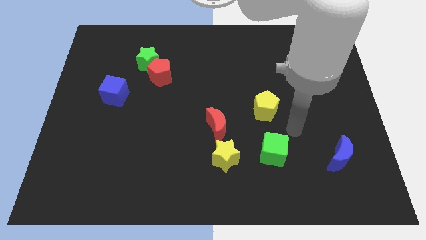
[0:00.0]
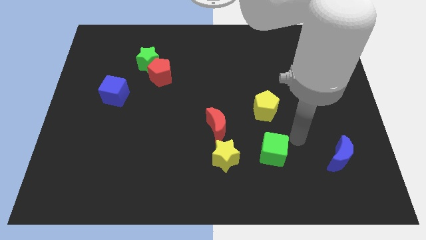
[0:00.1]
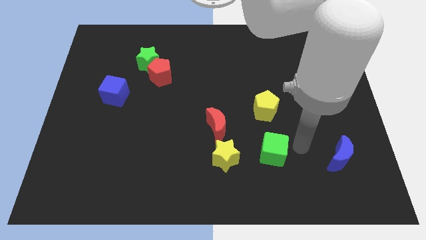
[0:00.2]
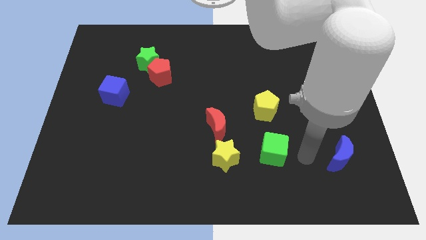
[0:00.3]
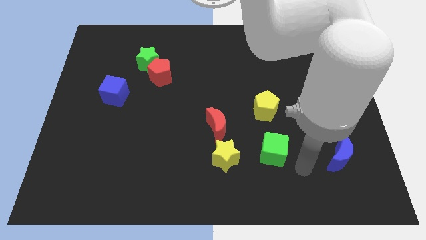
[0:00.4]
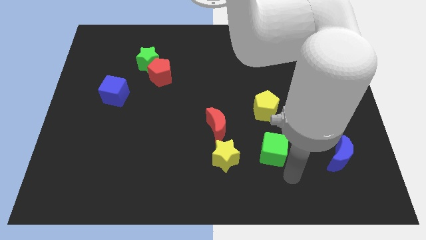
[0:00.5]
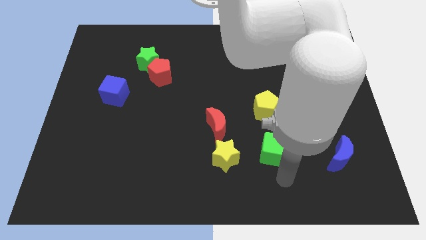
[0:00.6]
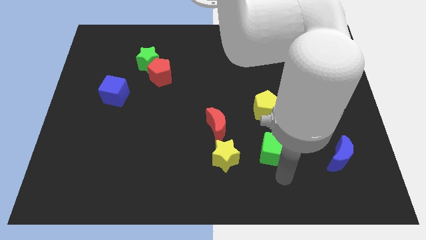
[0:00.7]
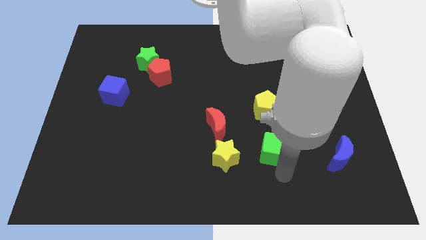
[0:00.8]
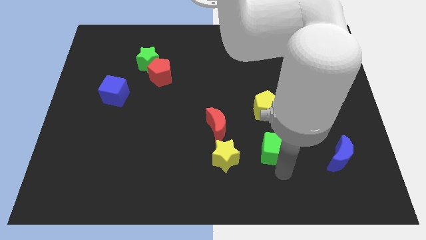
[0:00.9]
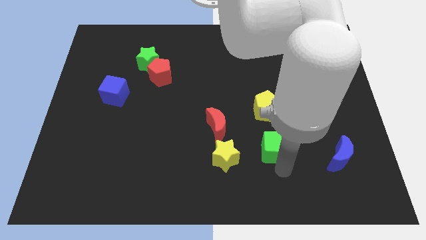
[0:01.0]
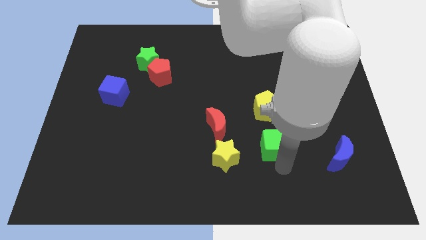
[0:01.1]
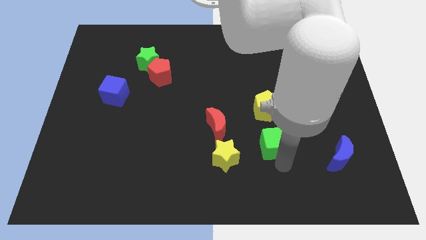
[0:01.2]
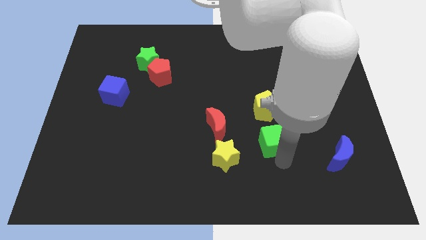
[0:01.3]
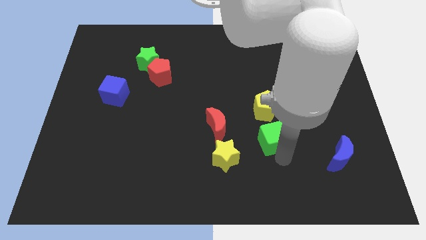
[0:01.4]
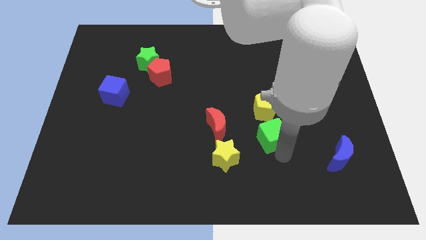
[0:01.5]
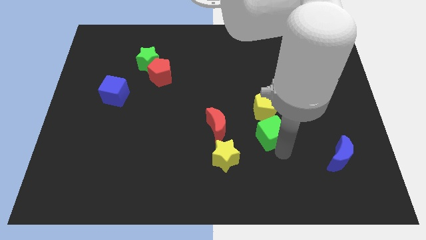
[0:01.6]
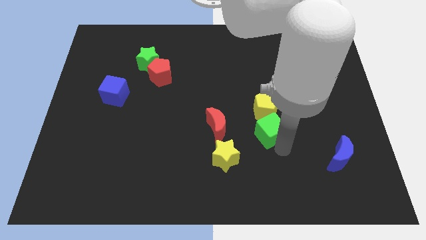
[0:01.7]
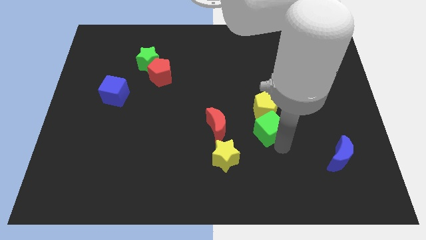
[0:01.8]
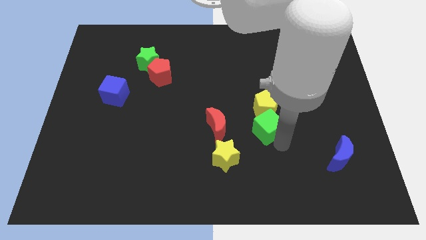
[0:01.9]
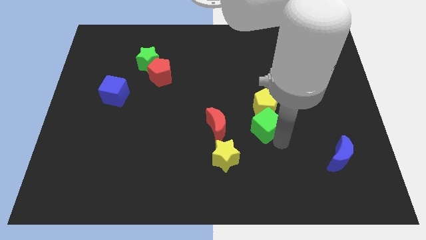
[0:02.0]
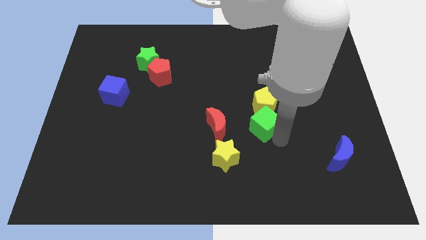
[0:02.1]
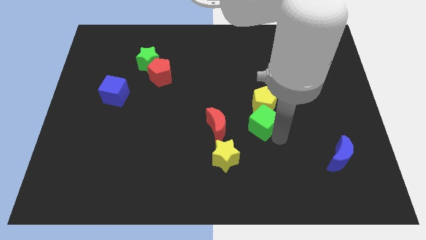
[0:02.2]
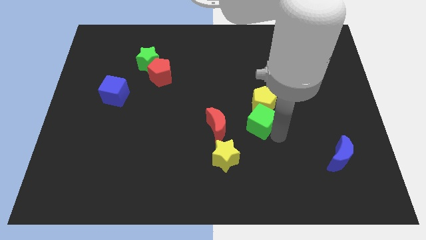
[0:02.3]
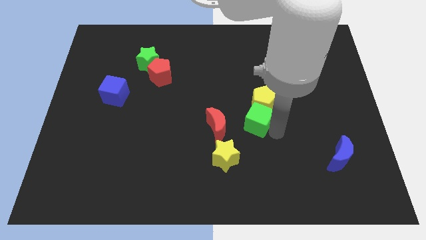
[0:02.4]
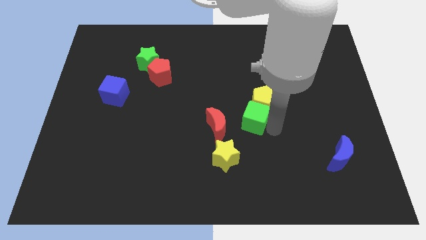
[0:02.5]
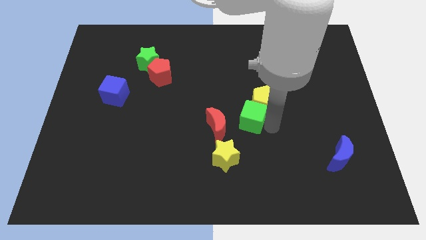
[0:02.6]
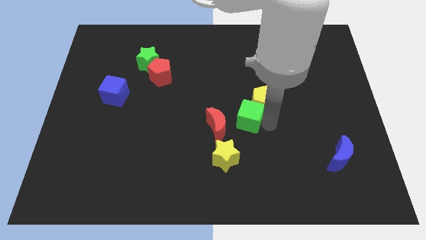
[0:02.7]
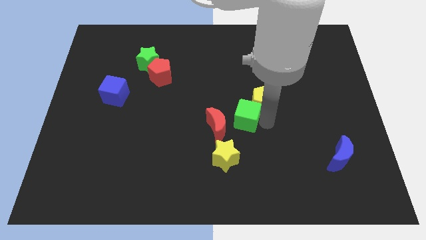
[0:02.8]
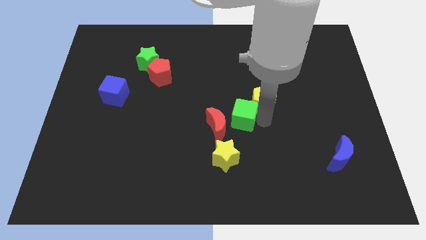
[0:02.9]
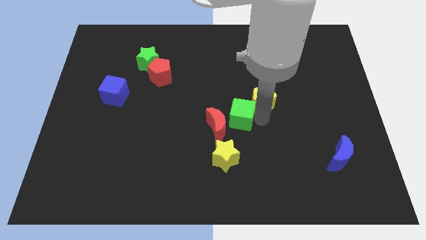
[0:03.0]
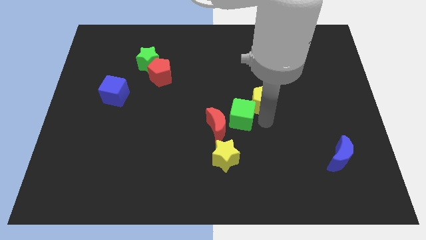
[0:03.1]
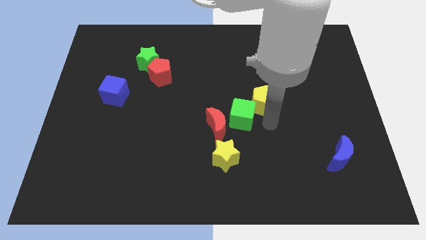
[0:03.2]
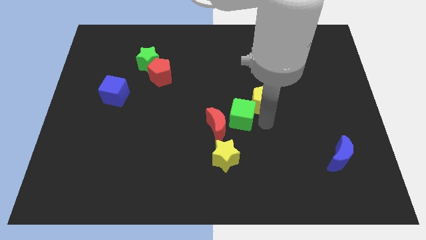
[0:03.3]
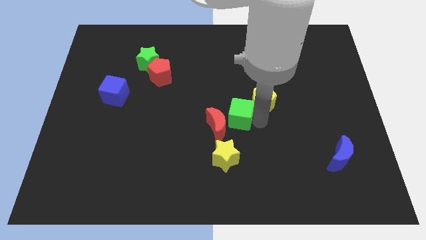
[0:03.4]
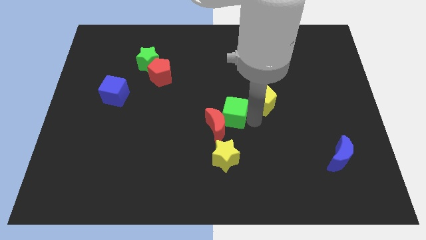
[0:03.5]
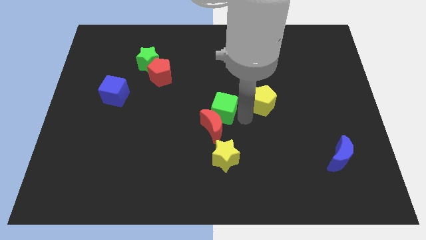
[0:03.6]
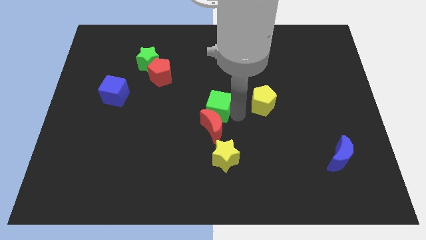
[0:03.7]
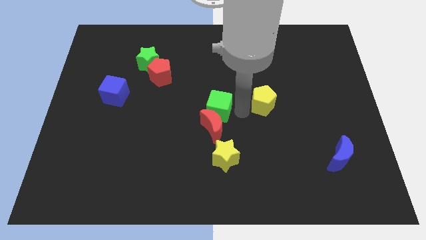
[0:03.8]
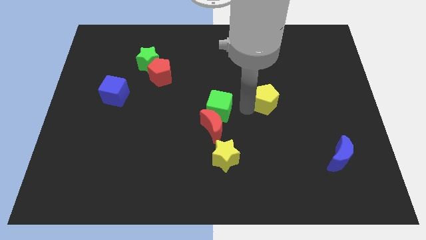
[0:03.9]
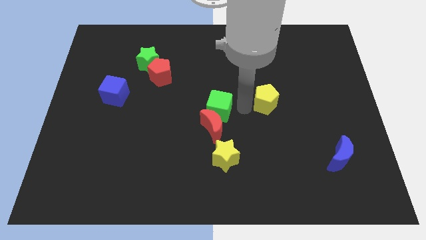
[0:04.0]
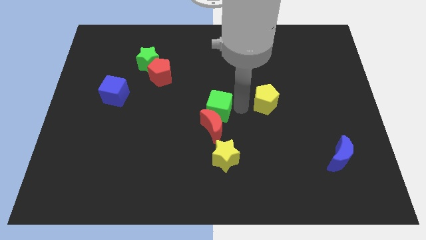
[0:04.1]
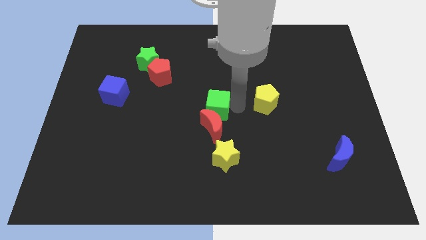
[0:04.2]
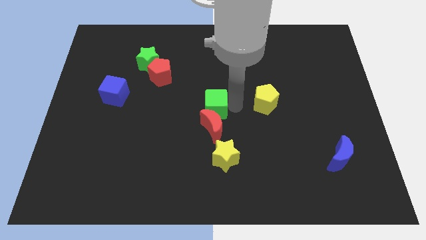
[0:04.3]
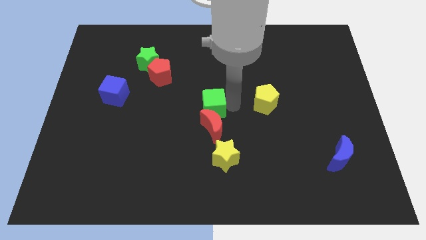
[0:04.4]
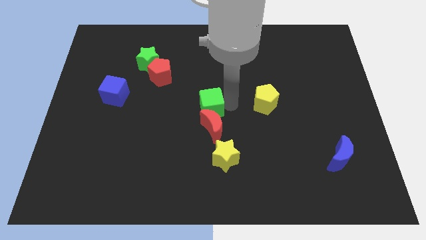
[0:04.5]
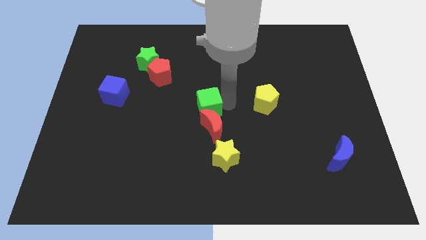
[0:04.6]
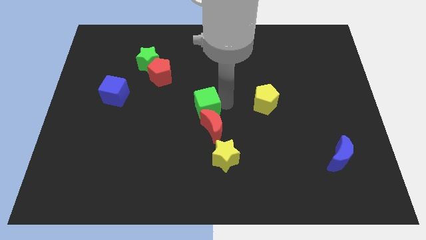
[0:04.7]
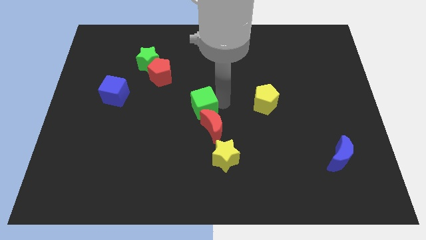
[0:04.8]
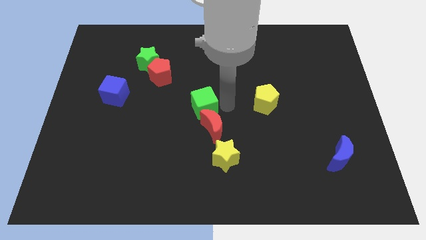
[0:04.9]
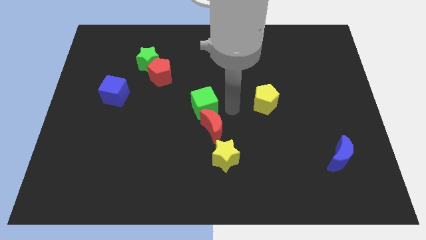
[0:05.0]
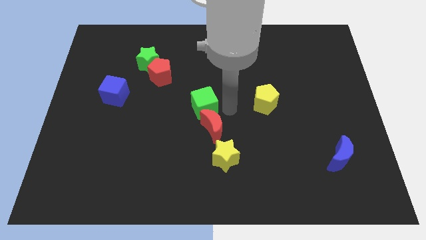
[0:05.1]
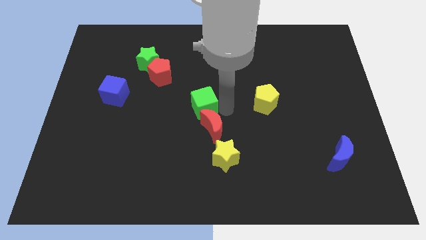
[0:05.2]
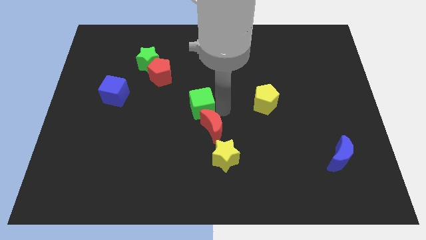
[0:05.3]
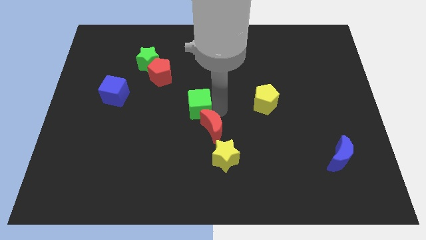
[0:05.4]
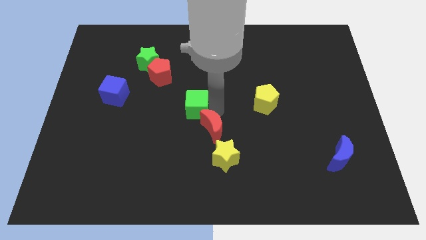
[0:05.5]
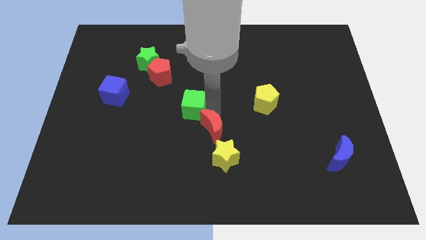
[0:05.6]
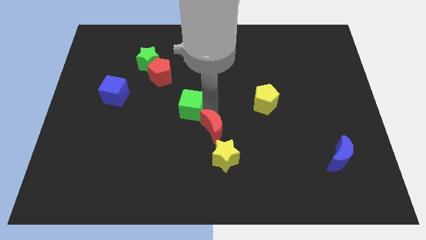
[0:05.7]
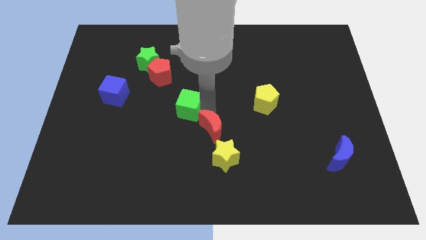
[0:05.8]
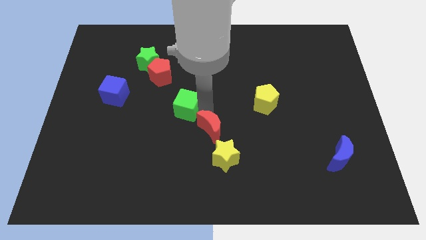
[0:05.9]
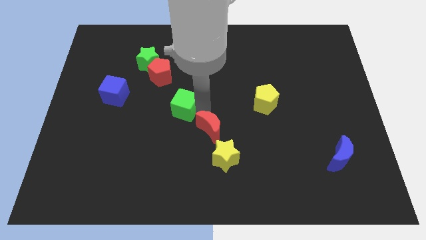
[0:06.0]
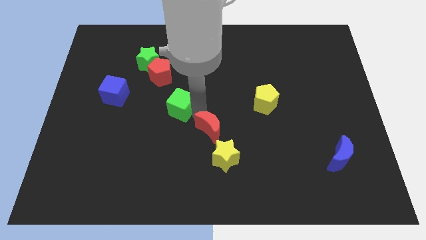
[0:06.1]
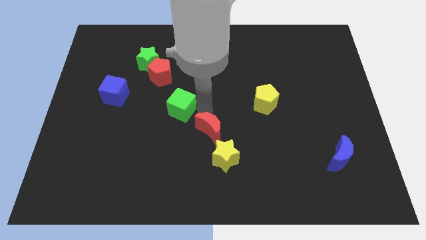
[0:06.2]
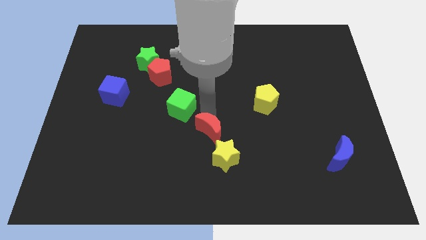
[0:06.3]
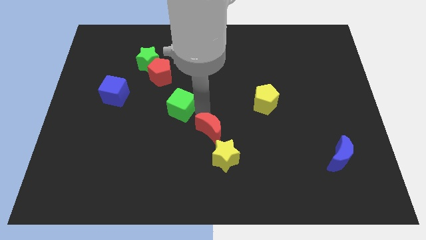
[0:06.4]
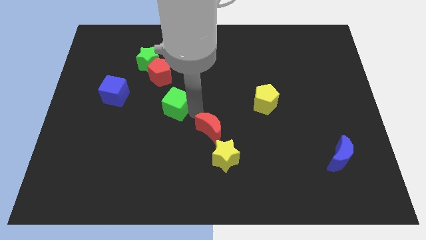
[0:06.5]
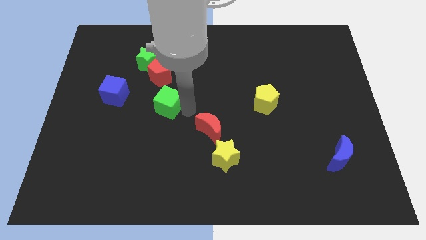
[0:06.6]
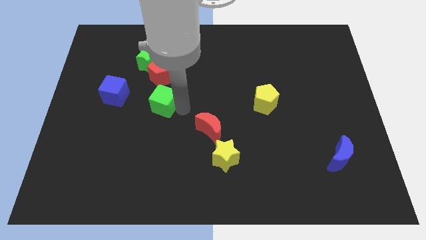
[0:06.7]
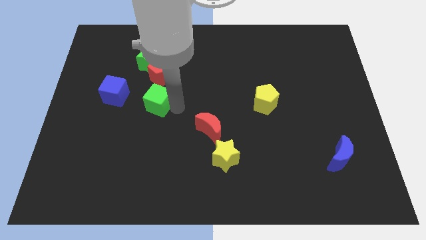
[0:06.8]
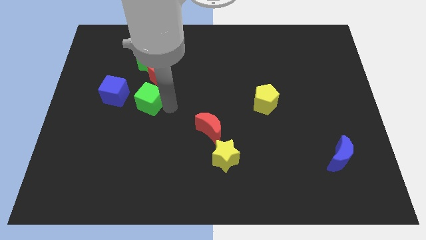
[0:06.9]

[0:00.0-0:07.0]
push the green cube diagonally down and to the left of the red pentagon
